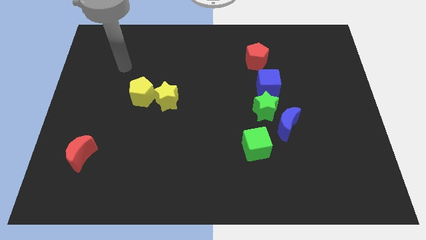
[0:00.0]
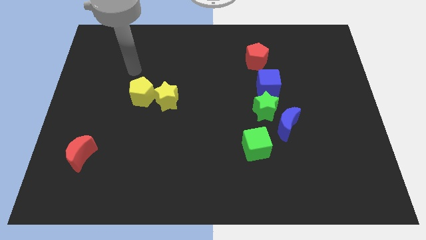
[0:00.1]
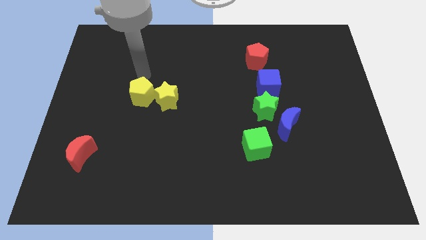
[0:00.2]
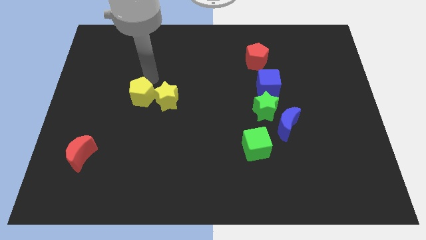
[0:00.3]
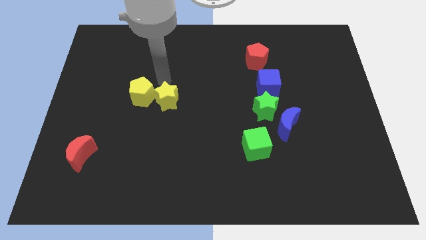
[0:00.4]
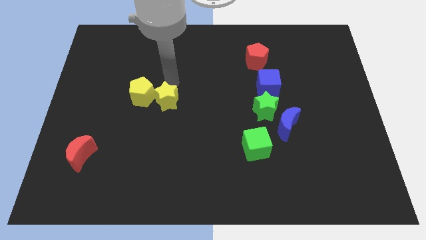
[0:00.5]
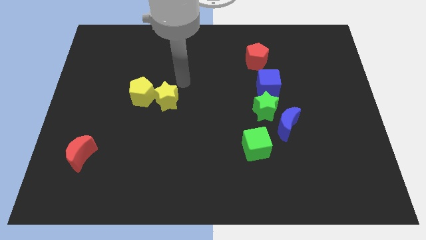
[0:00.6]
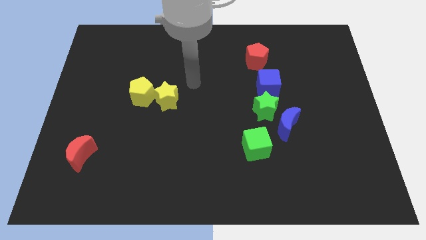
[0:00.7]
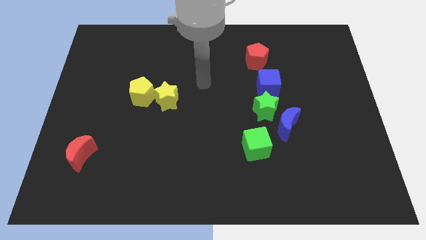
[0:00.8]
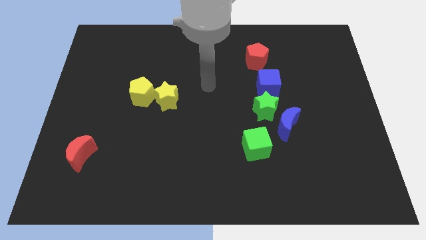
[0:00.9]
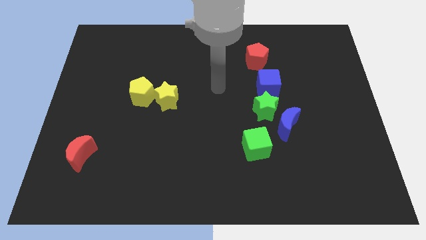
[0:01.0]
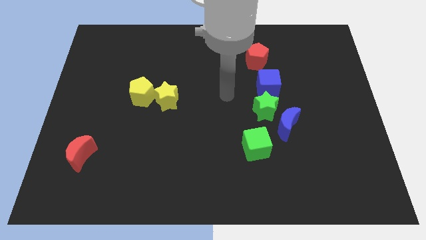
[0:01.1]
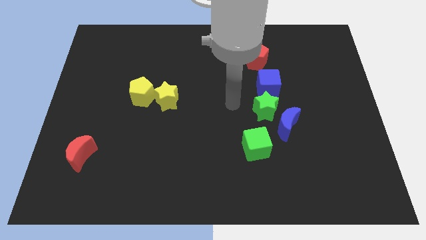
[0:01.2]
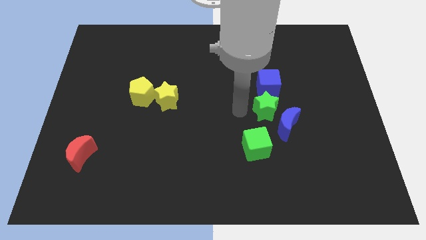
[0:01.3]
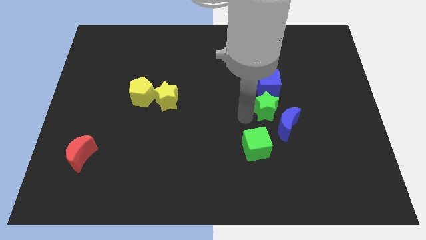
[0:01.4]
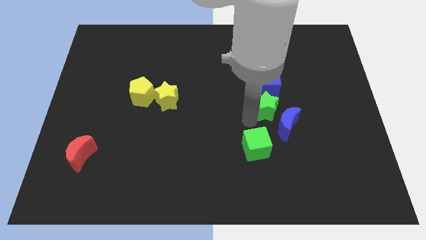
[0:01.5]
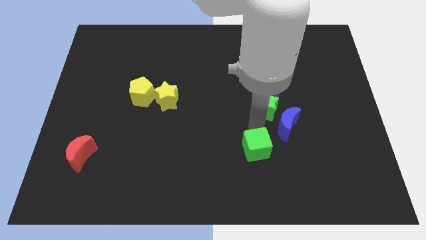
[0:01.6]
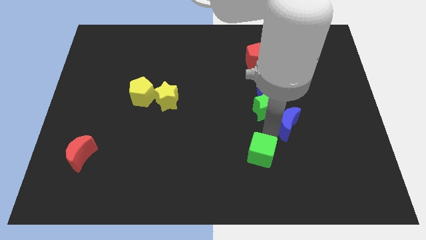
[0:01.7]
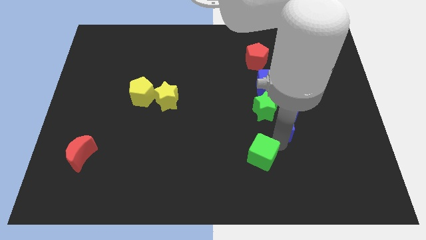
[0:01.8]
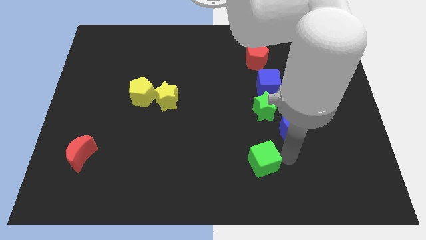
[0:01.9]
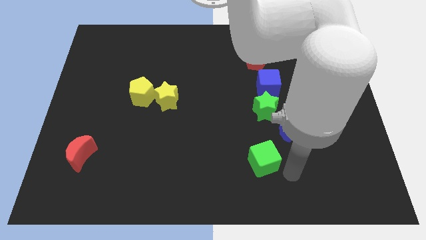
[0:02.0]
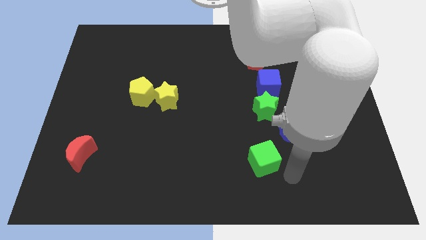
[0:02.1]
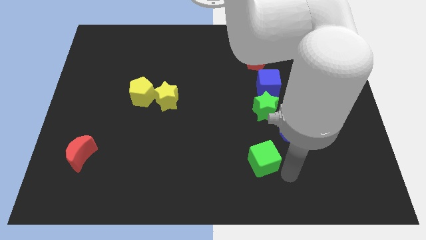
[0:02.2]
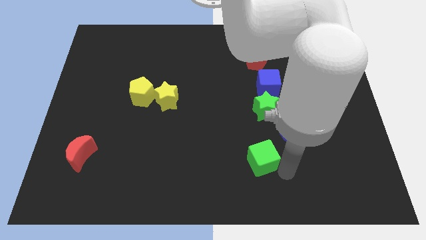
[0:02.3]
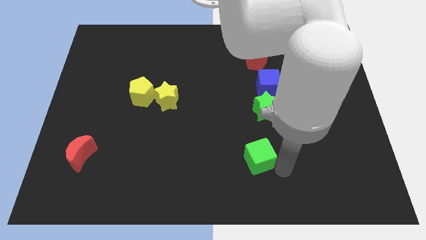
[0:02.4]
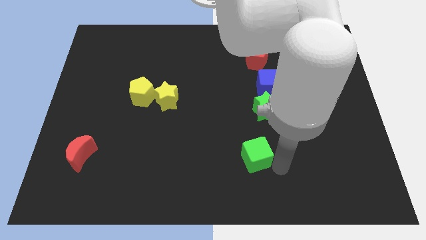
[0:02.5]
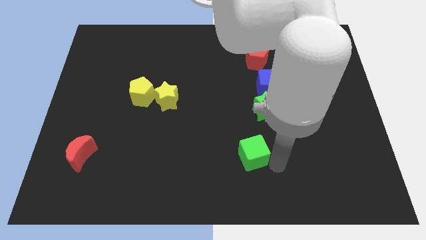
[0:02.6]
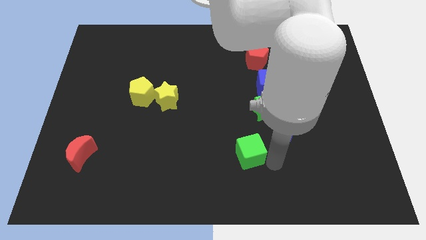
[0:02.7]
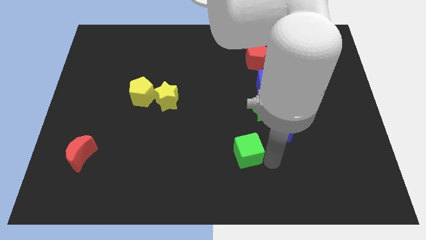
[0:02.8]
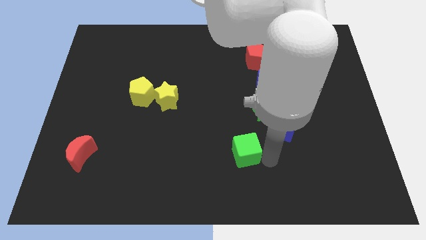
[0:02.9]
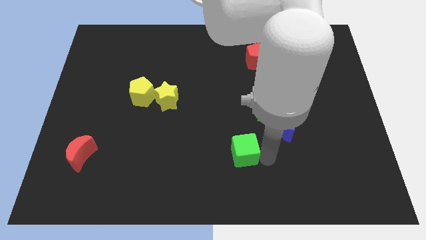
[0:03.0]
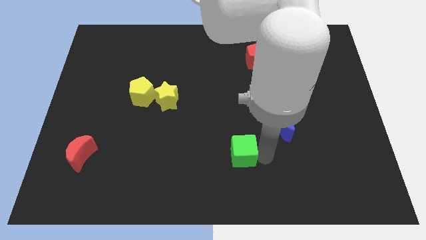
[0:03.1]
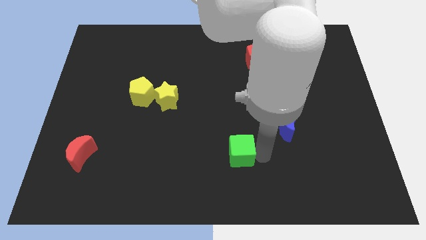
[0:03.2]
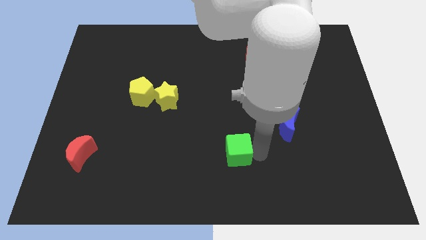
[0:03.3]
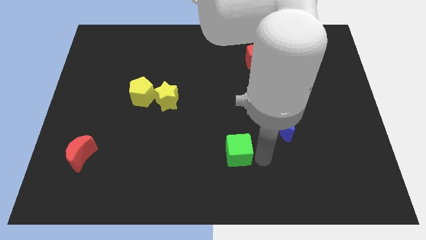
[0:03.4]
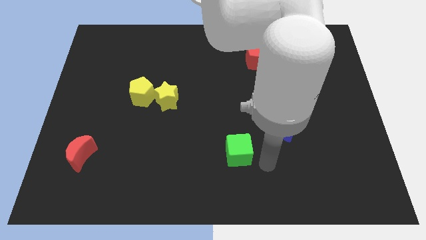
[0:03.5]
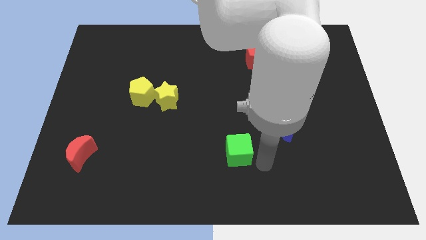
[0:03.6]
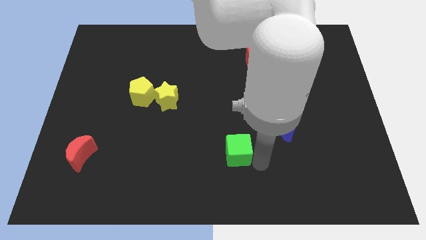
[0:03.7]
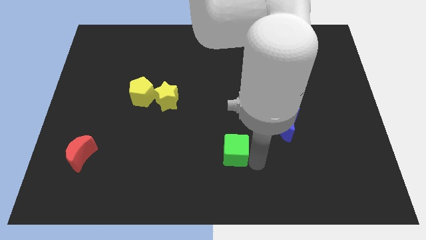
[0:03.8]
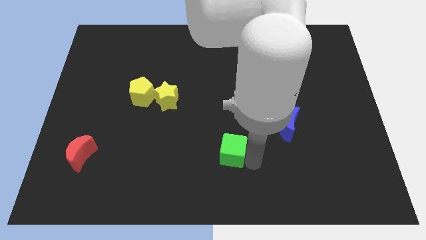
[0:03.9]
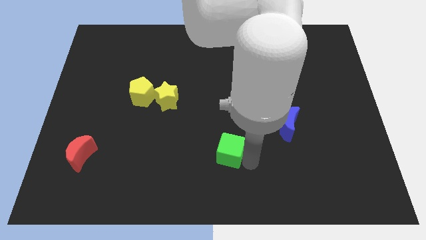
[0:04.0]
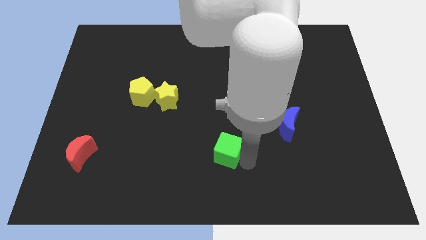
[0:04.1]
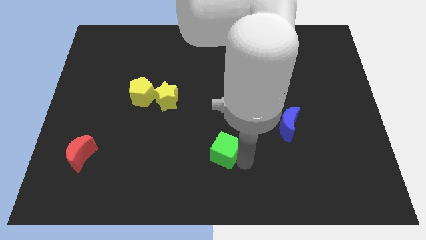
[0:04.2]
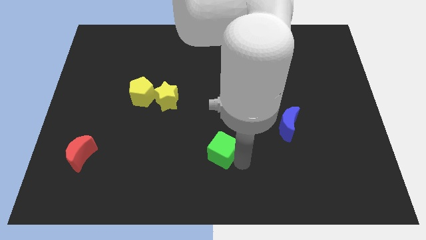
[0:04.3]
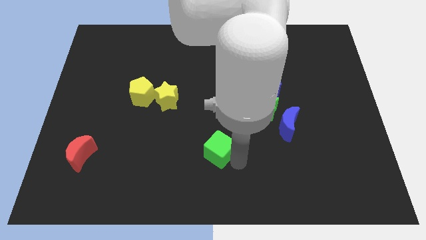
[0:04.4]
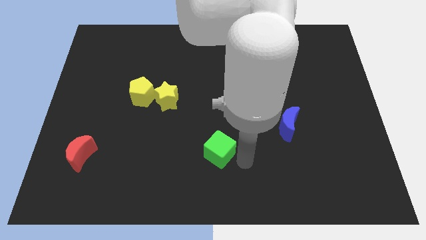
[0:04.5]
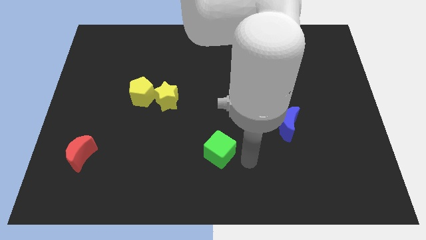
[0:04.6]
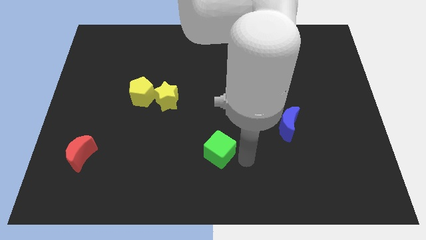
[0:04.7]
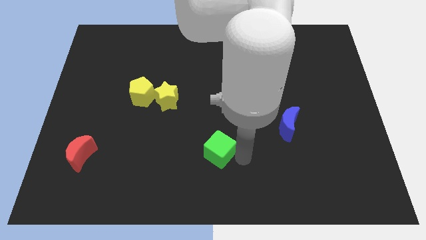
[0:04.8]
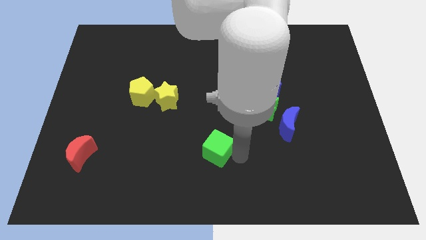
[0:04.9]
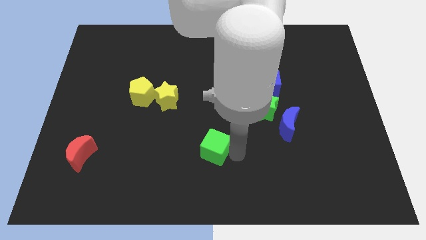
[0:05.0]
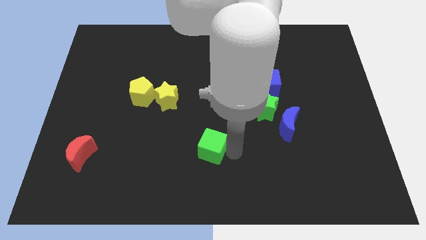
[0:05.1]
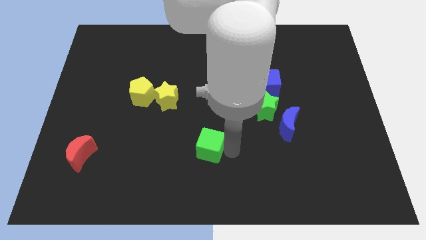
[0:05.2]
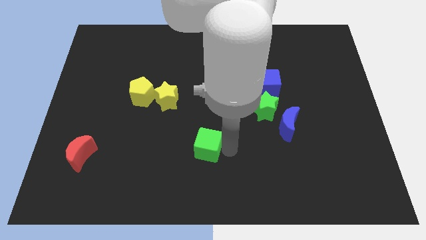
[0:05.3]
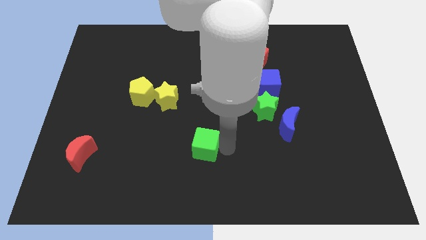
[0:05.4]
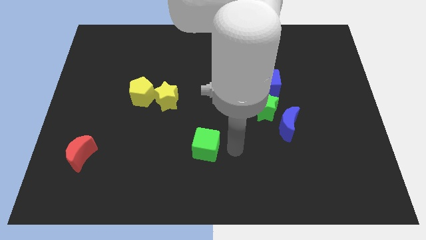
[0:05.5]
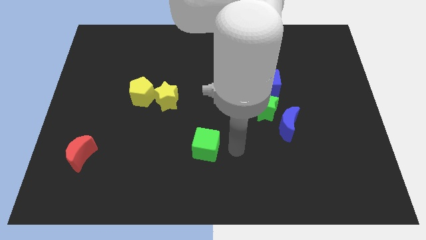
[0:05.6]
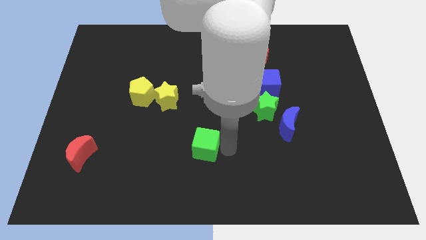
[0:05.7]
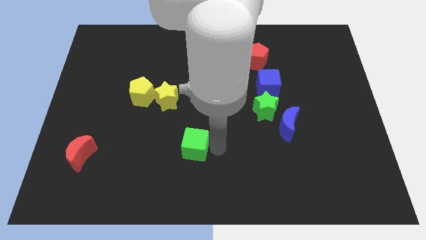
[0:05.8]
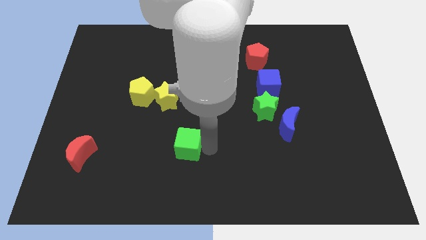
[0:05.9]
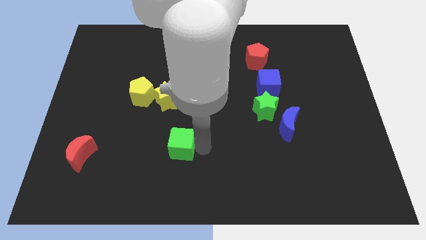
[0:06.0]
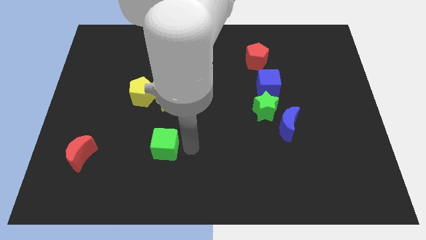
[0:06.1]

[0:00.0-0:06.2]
push the green cube left

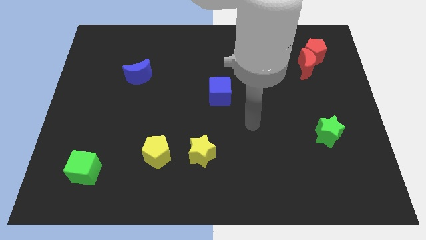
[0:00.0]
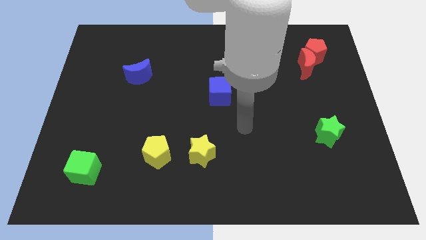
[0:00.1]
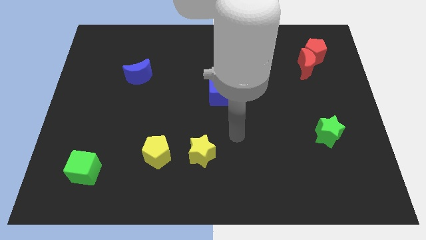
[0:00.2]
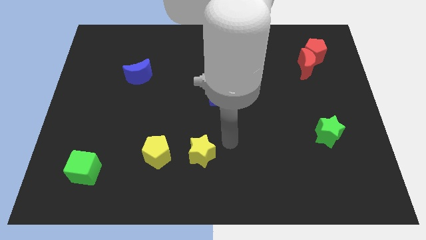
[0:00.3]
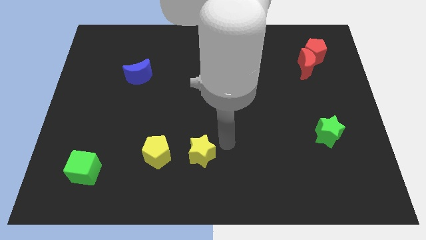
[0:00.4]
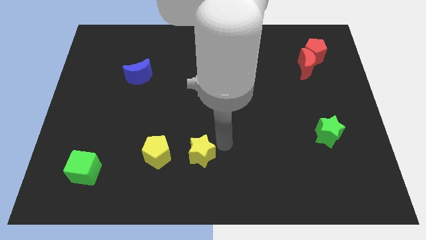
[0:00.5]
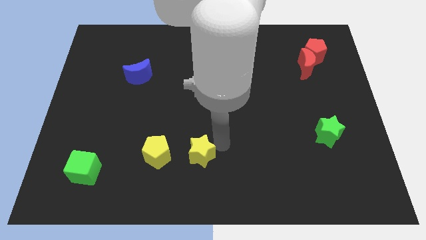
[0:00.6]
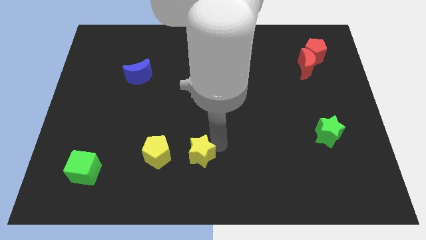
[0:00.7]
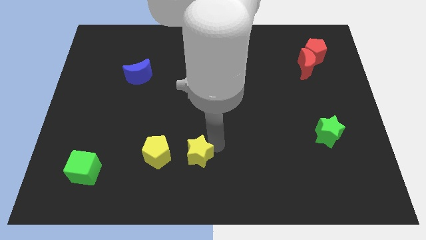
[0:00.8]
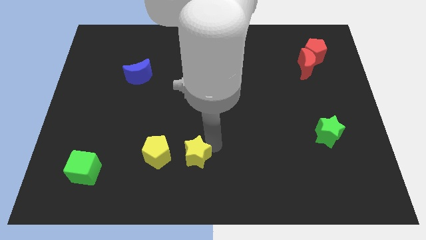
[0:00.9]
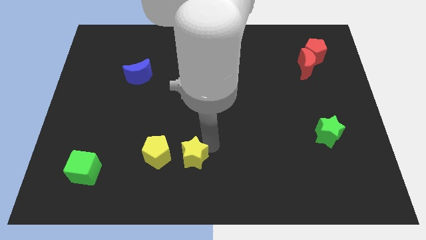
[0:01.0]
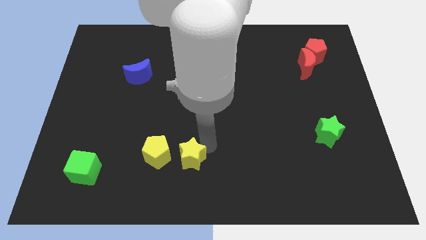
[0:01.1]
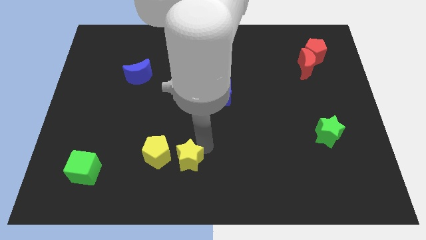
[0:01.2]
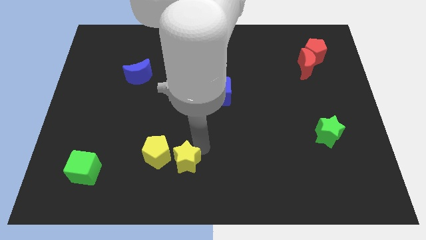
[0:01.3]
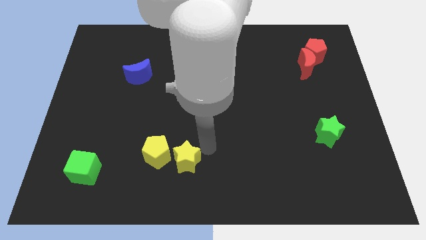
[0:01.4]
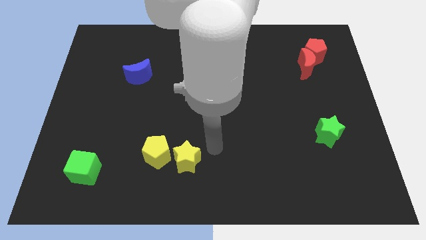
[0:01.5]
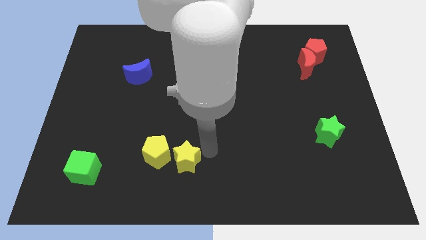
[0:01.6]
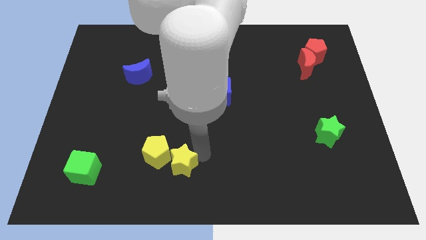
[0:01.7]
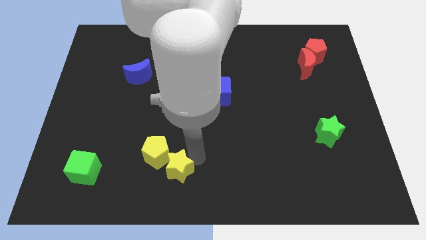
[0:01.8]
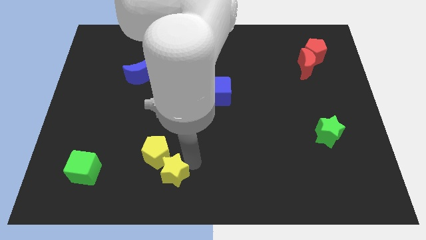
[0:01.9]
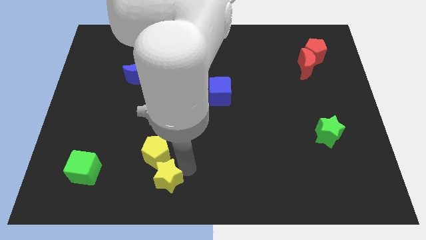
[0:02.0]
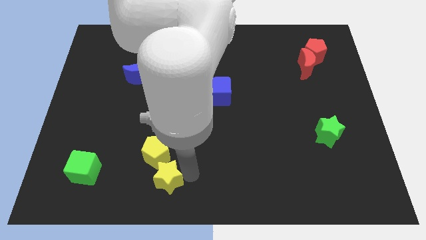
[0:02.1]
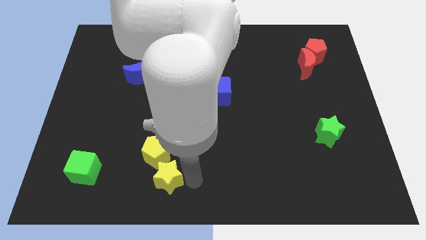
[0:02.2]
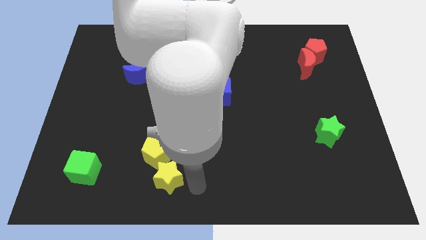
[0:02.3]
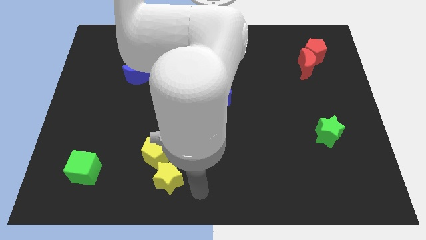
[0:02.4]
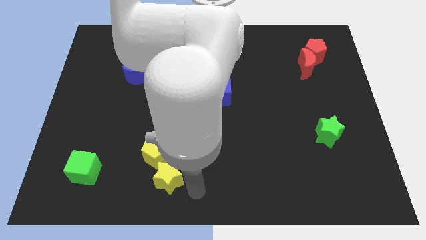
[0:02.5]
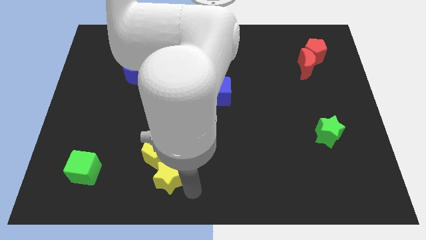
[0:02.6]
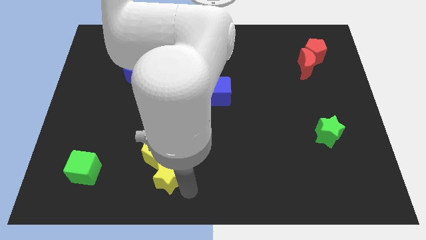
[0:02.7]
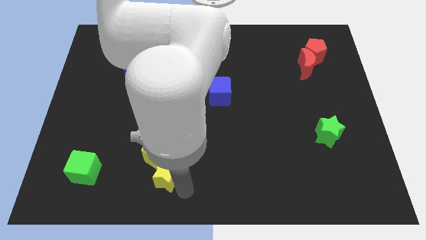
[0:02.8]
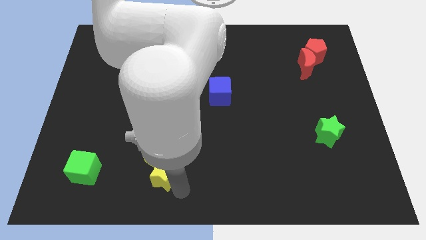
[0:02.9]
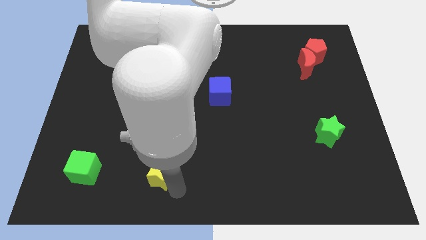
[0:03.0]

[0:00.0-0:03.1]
slide the yellow star a little bit left
